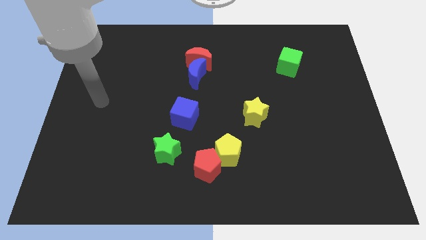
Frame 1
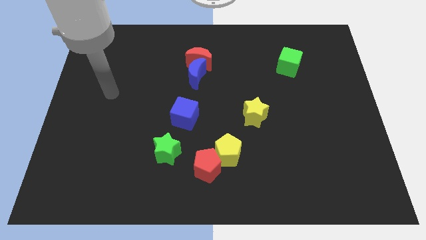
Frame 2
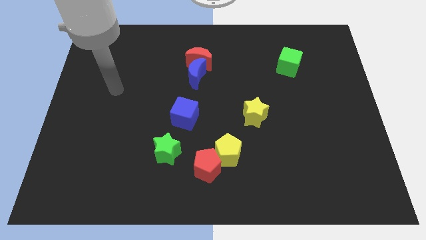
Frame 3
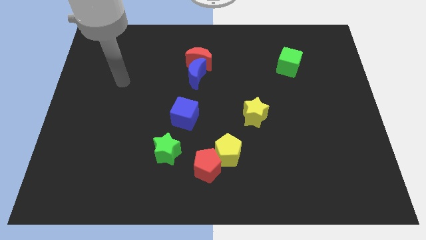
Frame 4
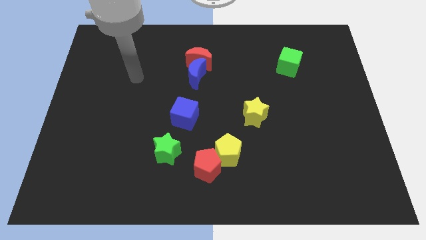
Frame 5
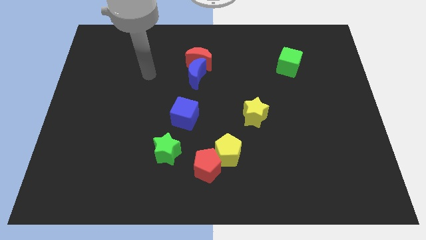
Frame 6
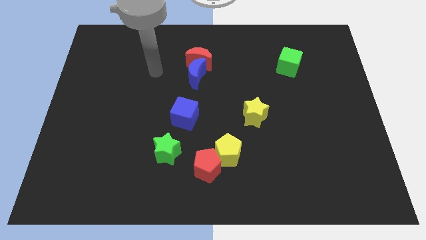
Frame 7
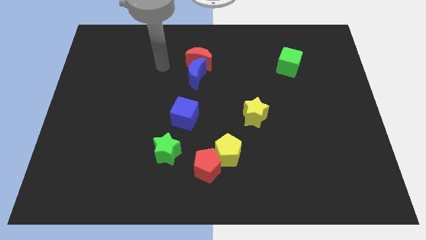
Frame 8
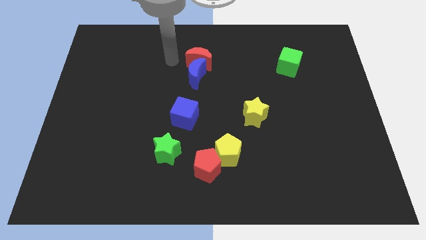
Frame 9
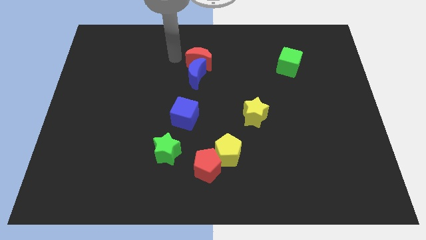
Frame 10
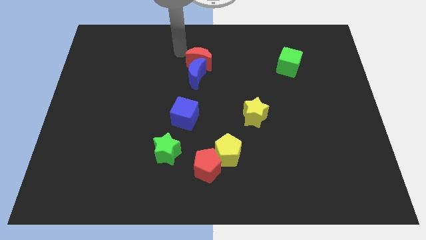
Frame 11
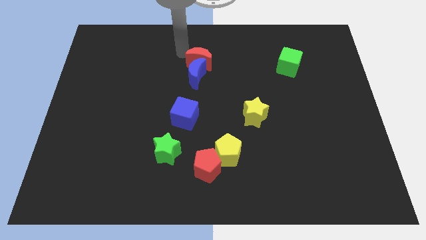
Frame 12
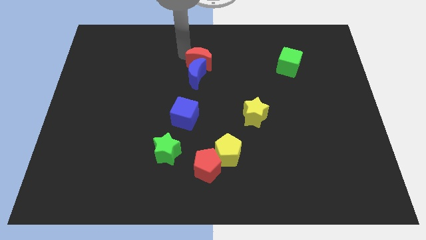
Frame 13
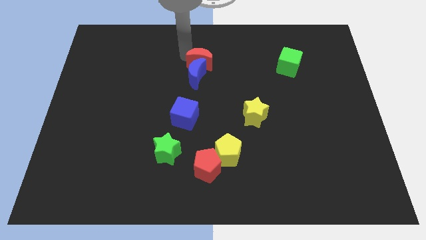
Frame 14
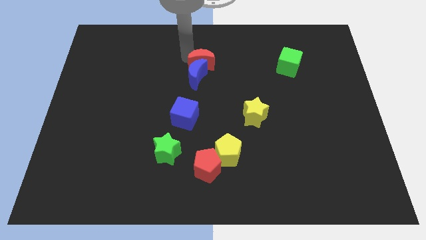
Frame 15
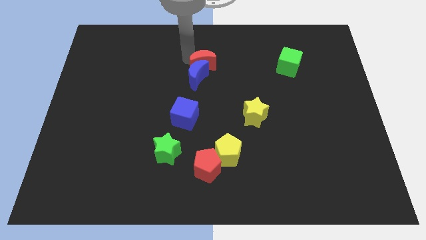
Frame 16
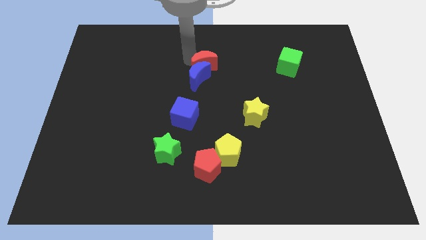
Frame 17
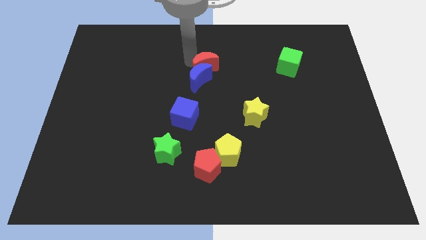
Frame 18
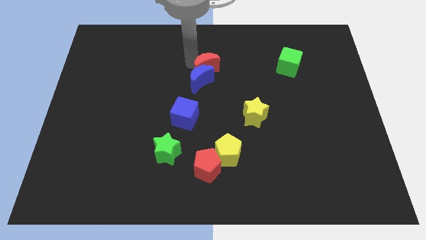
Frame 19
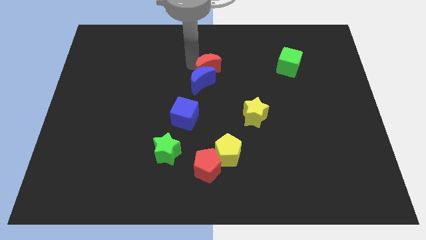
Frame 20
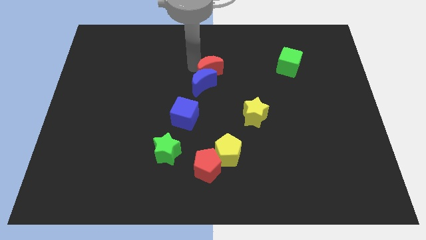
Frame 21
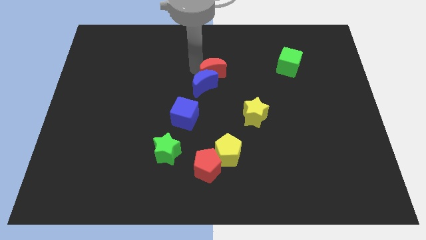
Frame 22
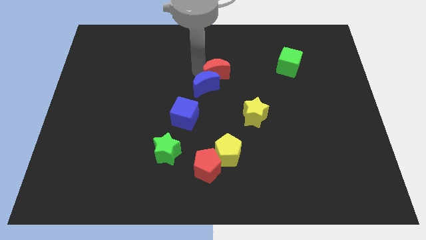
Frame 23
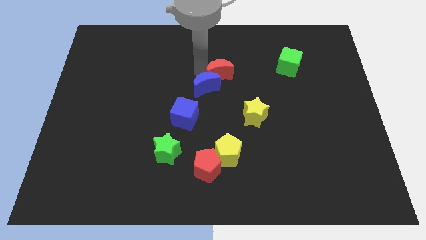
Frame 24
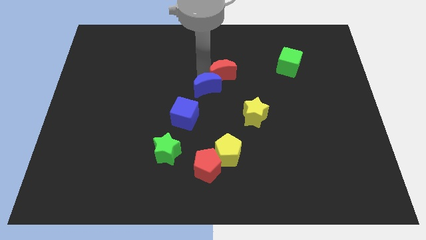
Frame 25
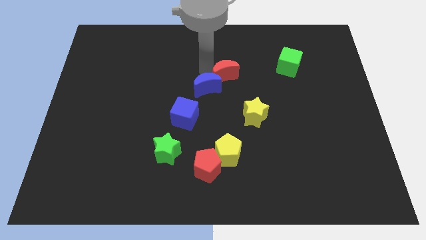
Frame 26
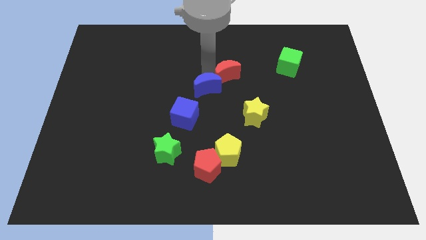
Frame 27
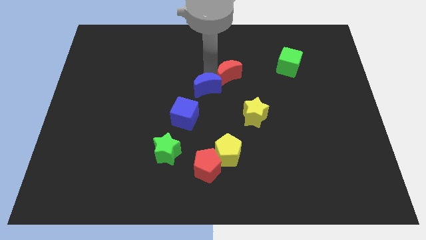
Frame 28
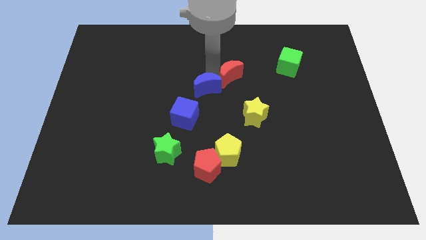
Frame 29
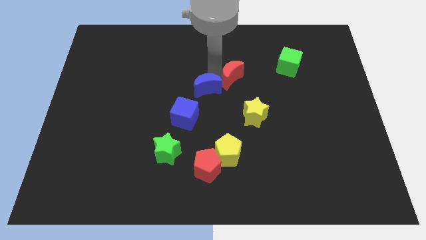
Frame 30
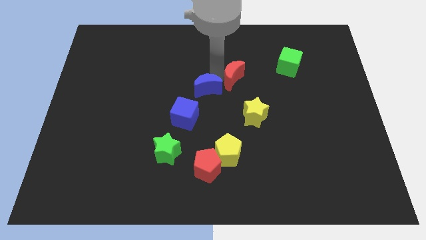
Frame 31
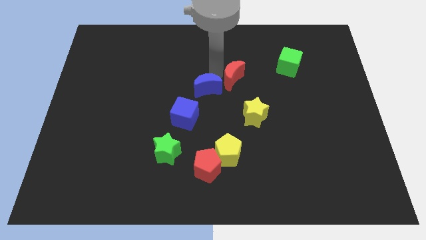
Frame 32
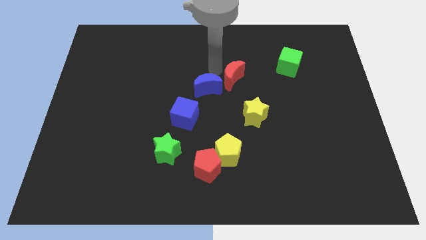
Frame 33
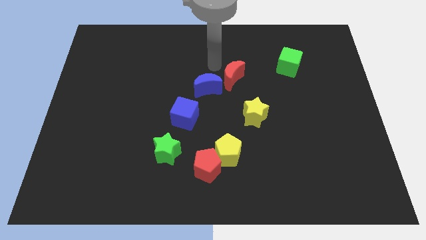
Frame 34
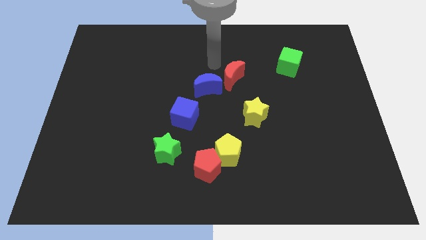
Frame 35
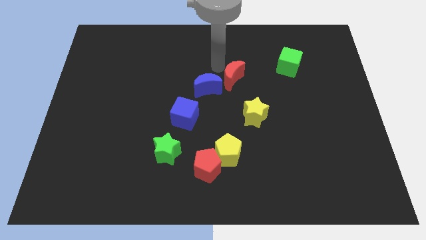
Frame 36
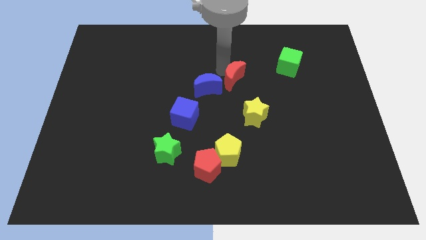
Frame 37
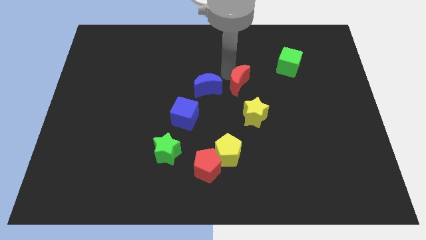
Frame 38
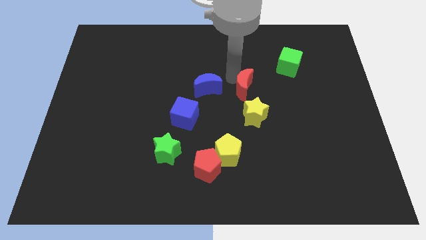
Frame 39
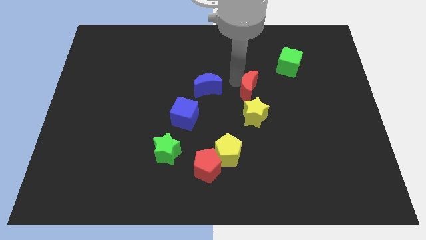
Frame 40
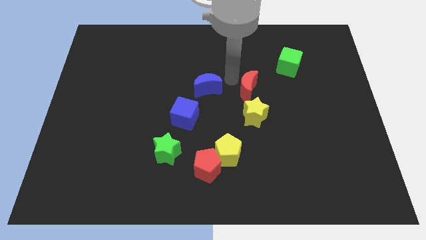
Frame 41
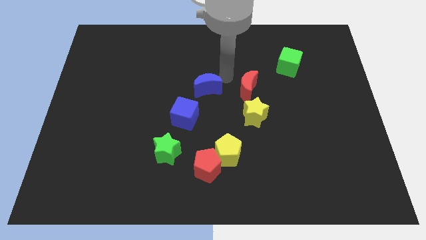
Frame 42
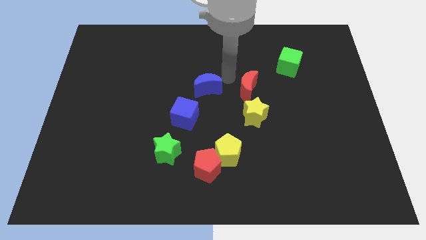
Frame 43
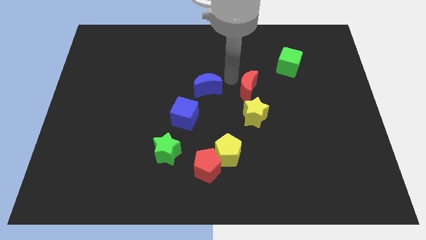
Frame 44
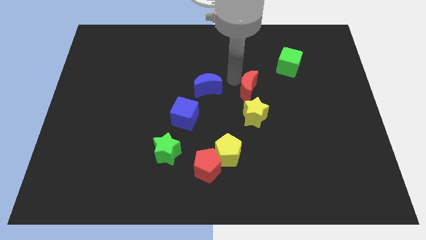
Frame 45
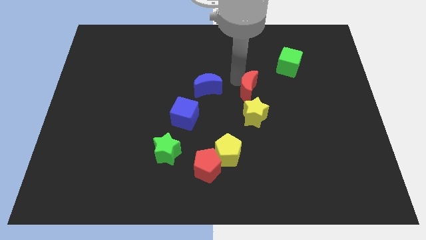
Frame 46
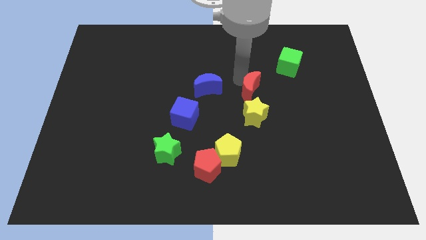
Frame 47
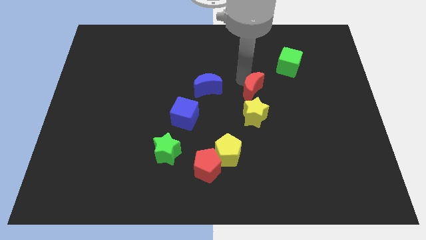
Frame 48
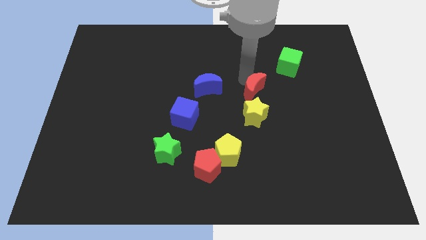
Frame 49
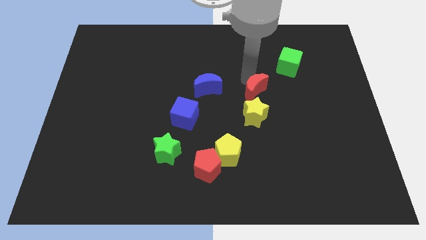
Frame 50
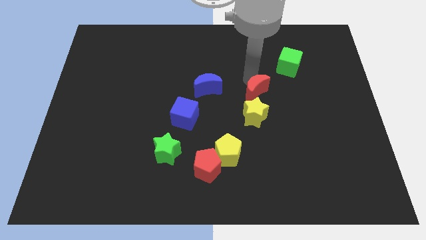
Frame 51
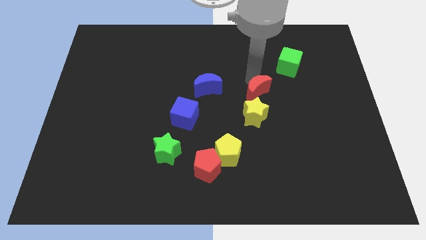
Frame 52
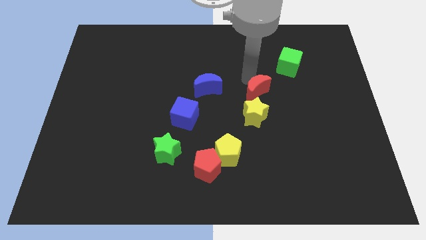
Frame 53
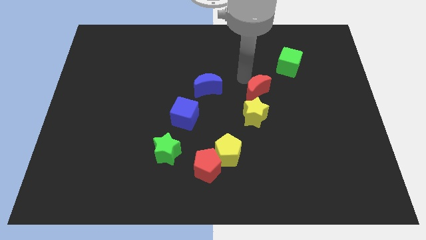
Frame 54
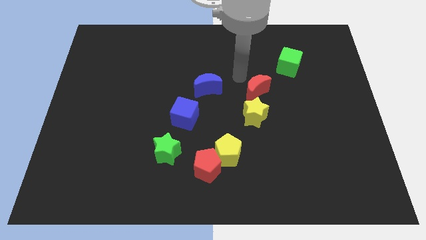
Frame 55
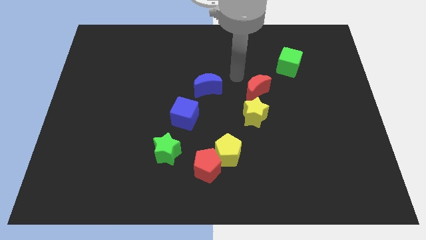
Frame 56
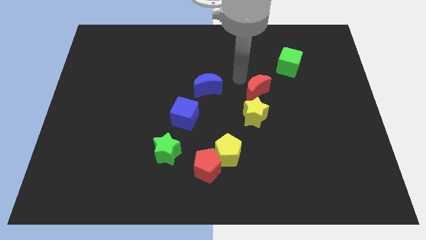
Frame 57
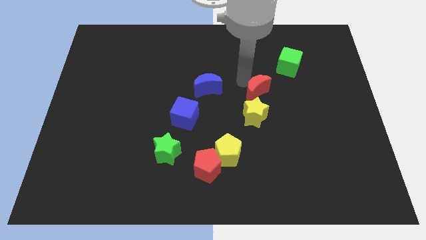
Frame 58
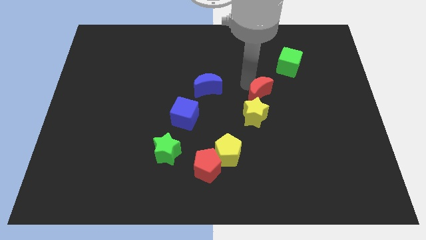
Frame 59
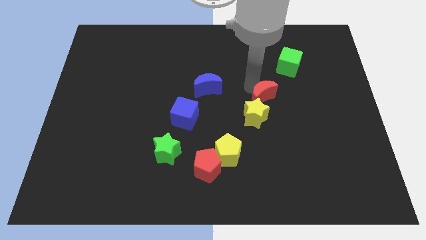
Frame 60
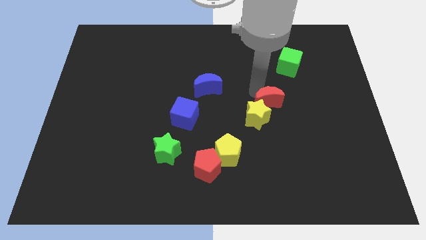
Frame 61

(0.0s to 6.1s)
push the red moon downwards and right

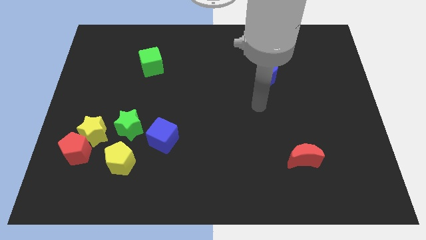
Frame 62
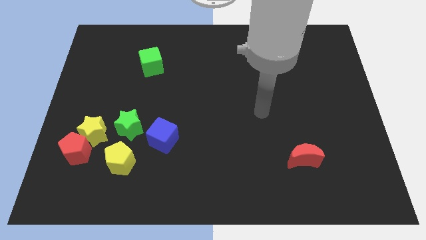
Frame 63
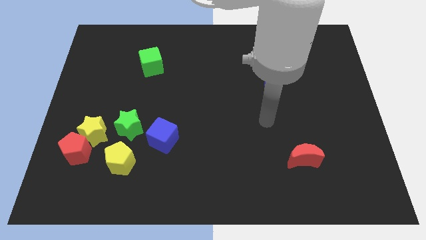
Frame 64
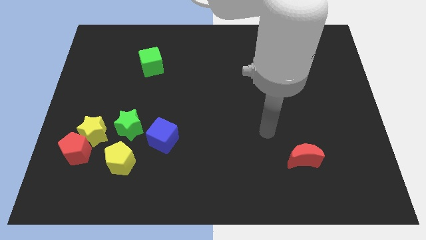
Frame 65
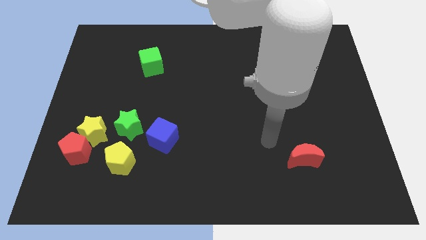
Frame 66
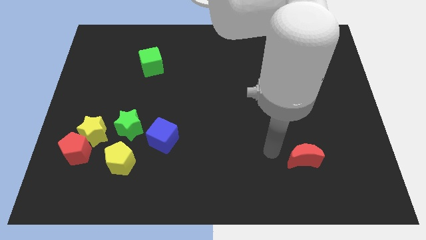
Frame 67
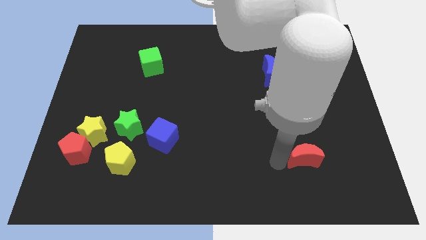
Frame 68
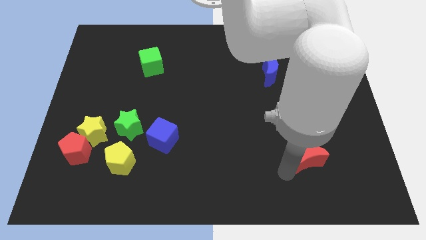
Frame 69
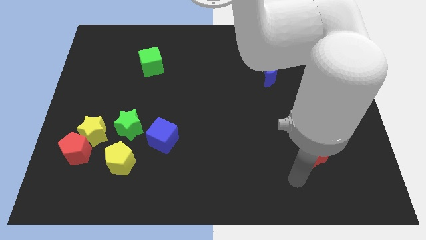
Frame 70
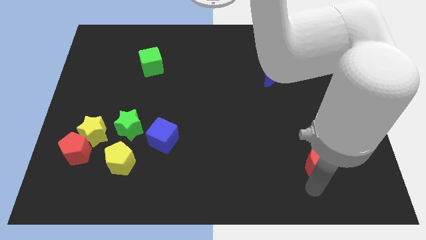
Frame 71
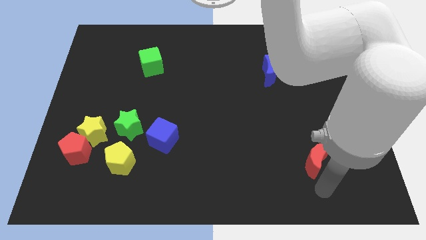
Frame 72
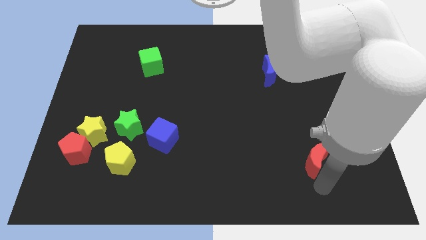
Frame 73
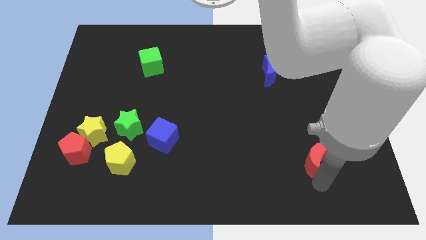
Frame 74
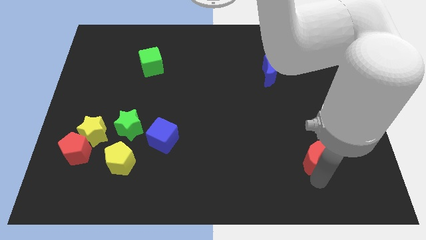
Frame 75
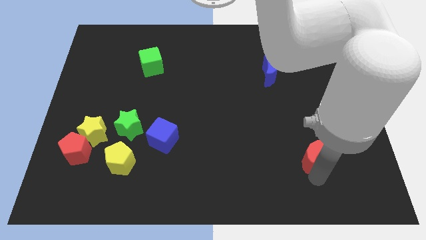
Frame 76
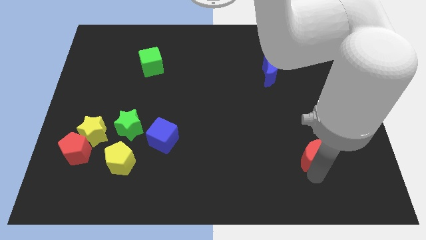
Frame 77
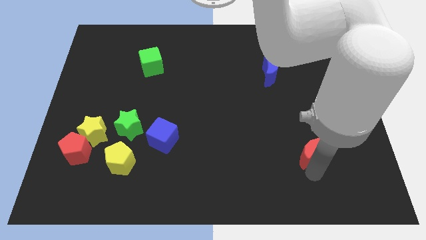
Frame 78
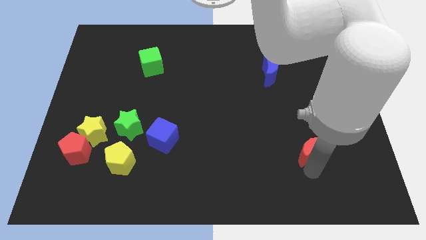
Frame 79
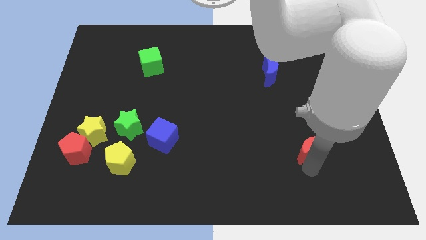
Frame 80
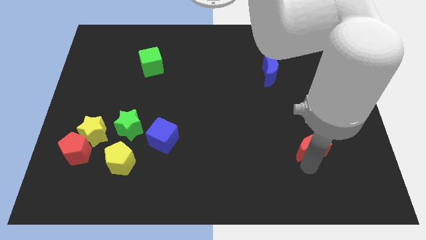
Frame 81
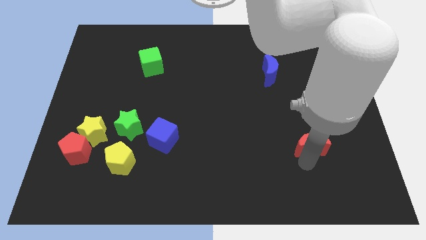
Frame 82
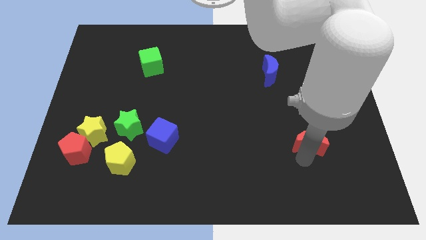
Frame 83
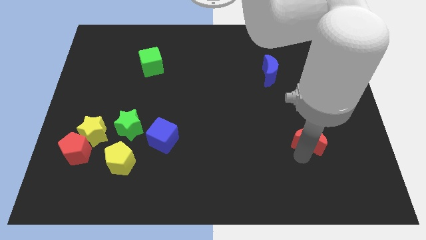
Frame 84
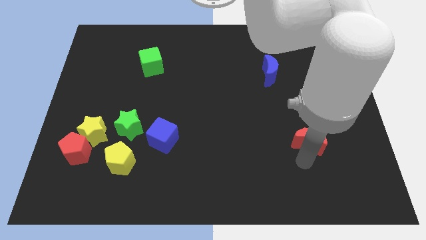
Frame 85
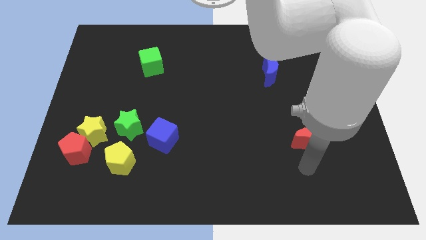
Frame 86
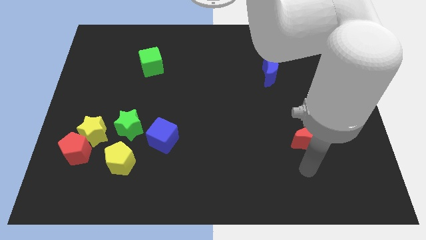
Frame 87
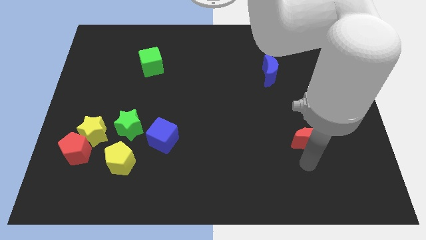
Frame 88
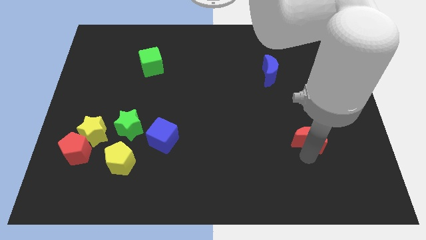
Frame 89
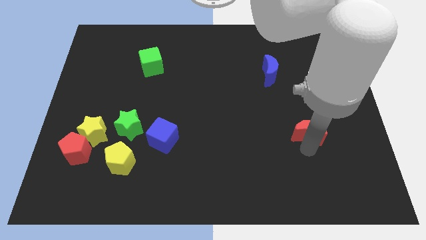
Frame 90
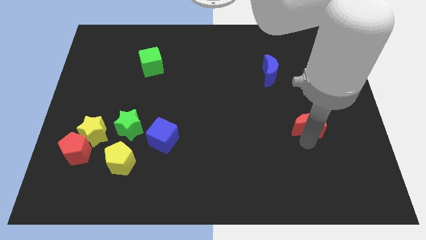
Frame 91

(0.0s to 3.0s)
move the red moon upwards a little
